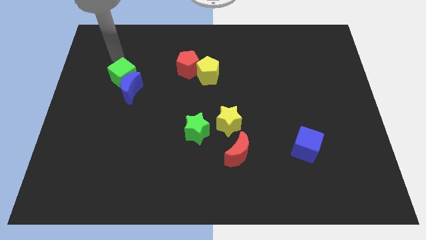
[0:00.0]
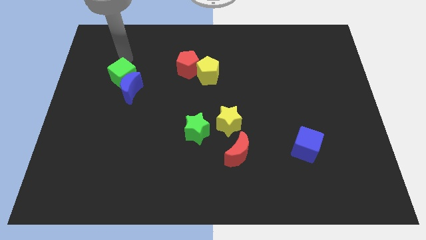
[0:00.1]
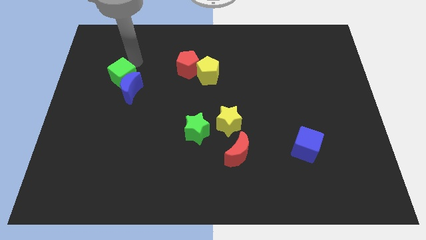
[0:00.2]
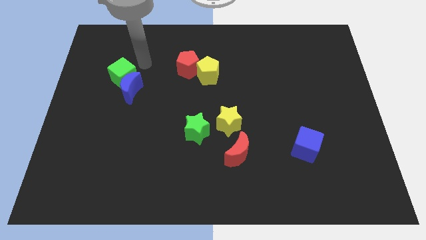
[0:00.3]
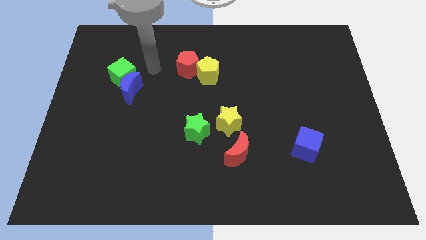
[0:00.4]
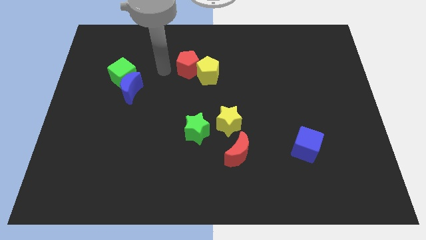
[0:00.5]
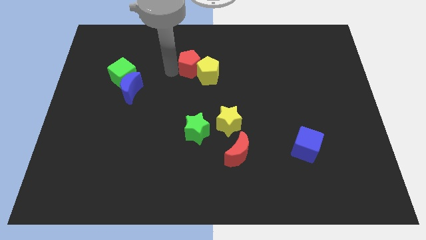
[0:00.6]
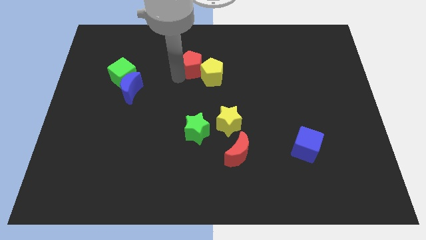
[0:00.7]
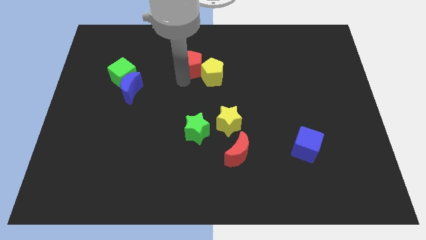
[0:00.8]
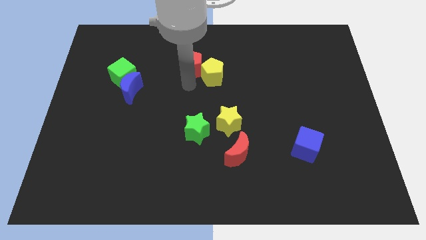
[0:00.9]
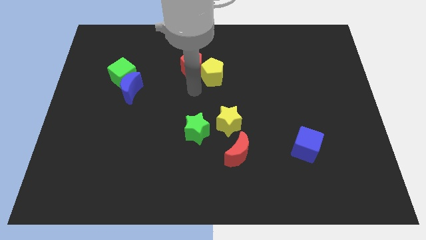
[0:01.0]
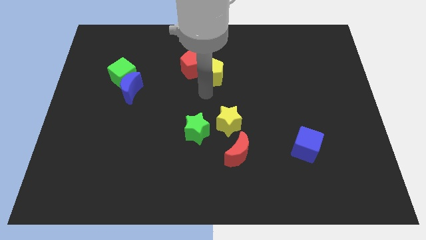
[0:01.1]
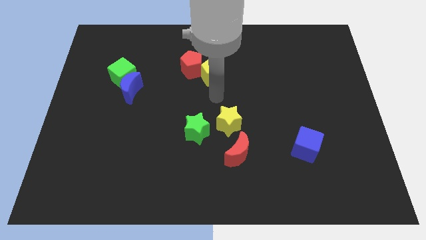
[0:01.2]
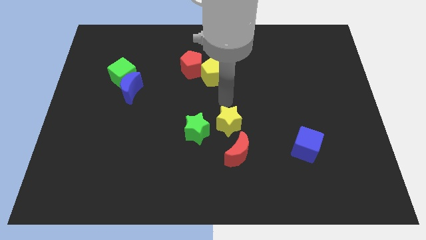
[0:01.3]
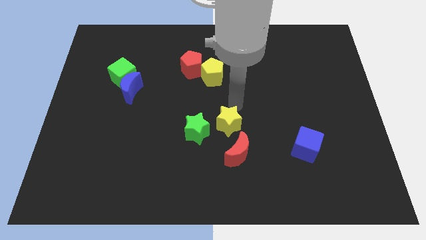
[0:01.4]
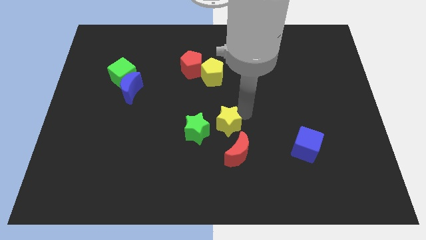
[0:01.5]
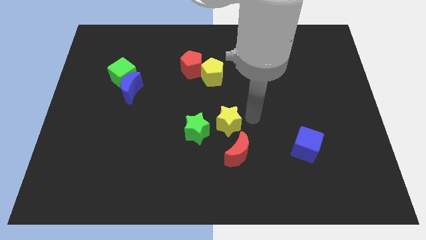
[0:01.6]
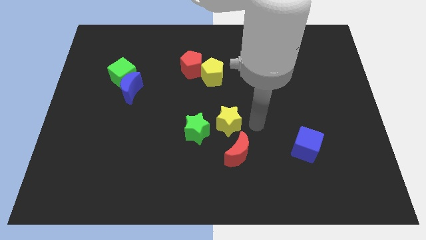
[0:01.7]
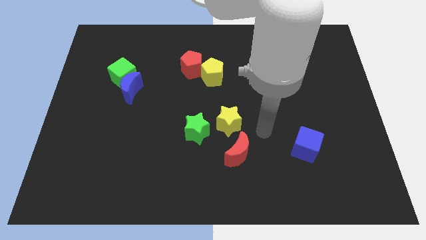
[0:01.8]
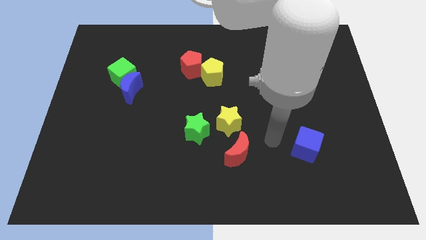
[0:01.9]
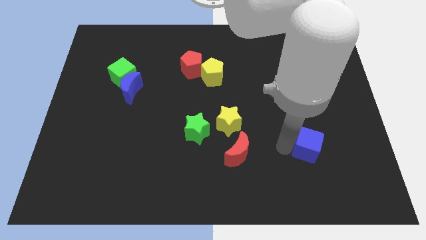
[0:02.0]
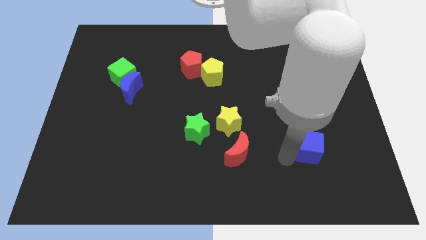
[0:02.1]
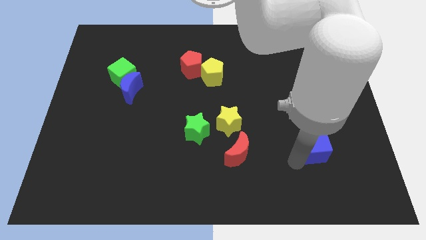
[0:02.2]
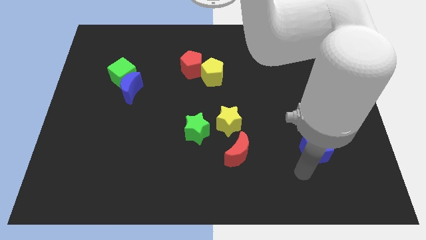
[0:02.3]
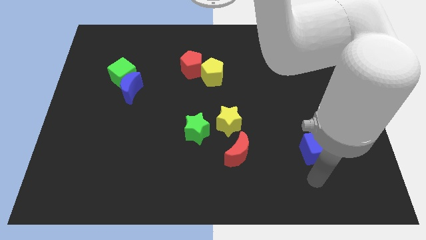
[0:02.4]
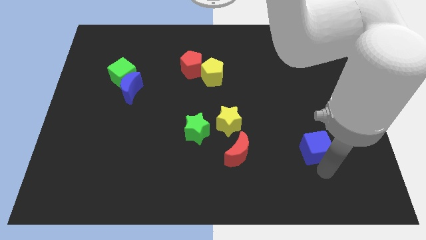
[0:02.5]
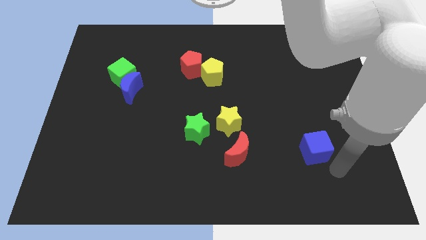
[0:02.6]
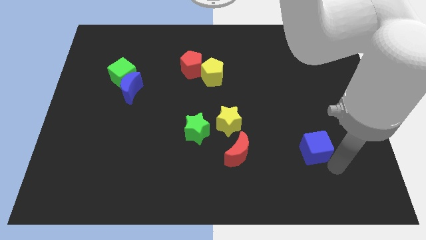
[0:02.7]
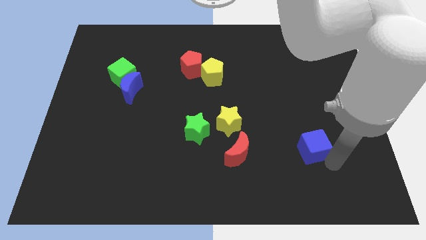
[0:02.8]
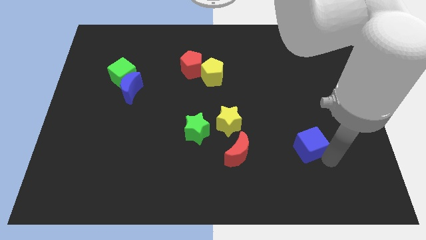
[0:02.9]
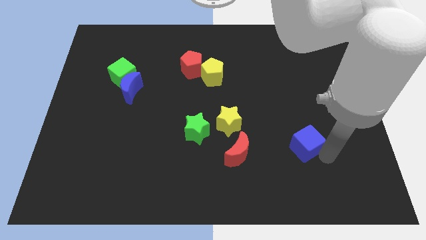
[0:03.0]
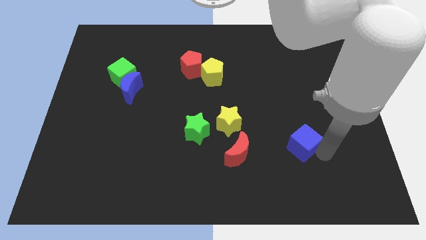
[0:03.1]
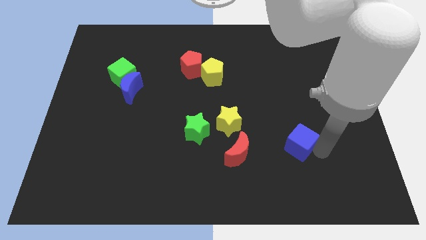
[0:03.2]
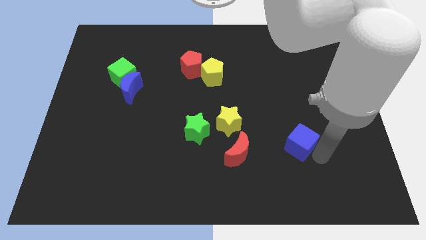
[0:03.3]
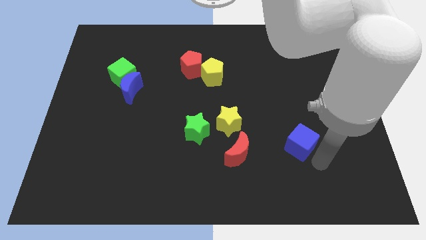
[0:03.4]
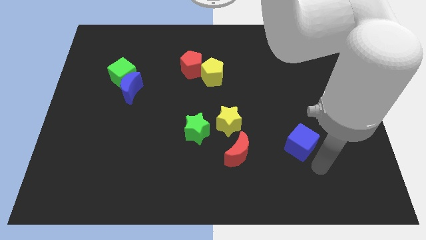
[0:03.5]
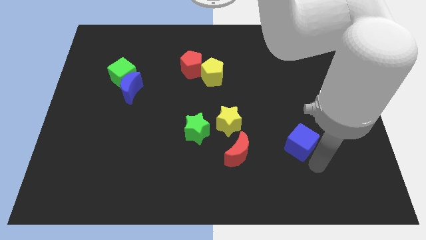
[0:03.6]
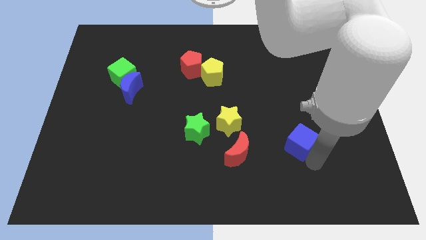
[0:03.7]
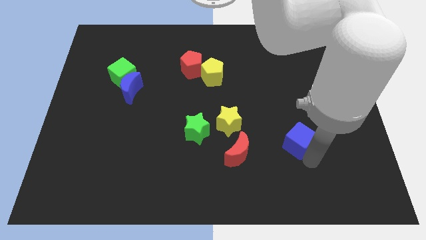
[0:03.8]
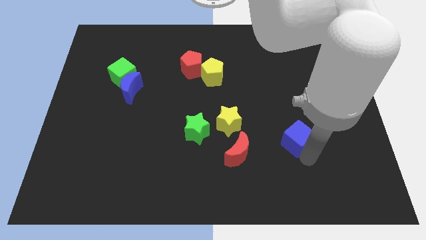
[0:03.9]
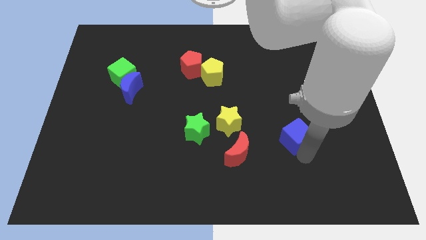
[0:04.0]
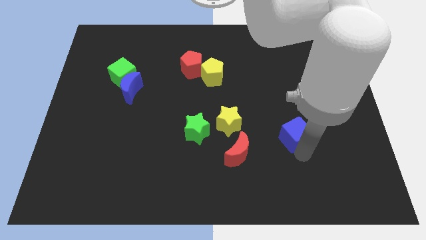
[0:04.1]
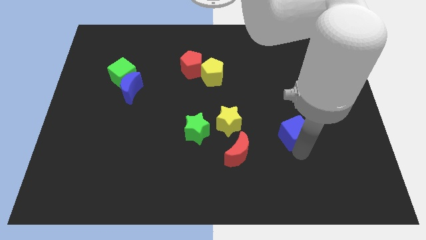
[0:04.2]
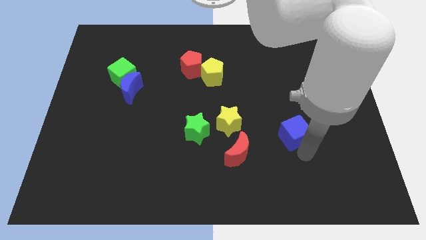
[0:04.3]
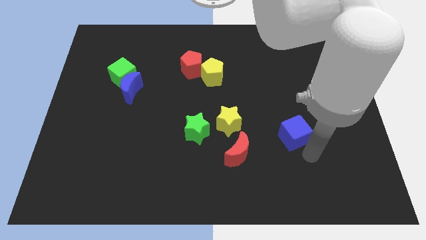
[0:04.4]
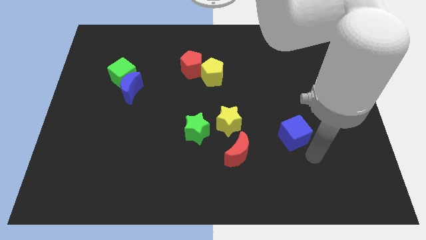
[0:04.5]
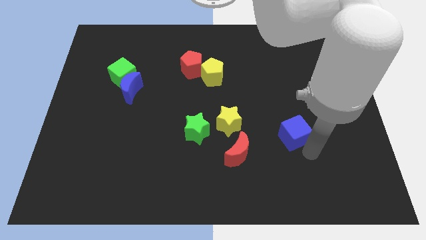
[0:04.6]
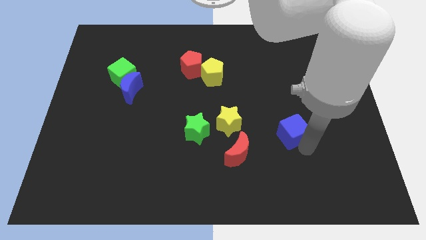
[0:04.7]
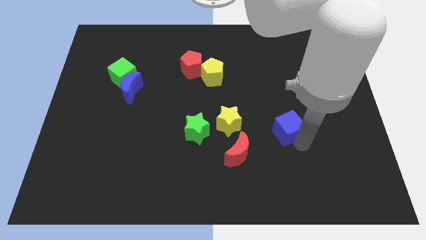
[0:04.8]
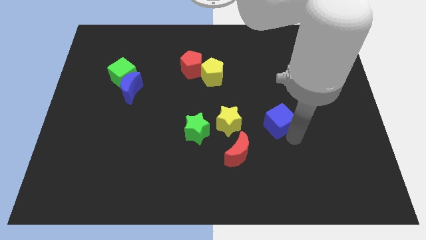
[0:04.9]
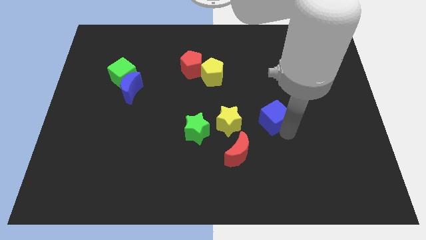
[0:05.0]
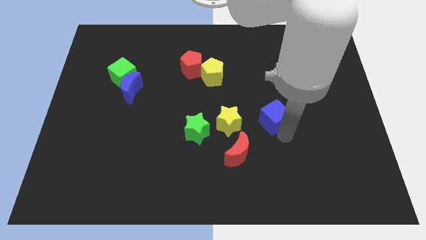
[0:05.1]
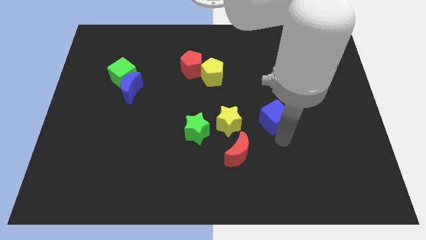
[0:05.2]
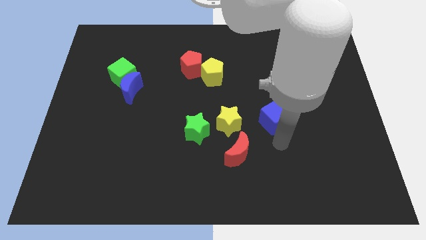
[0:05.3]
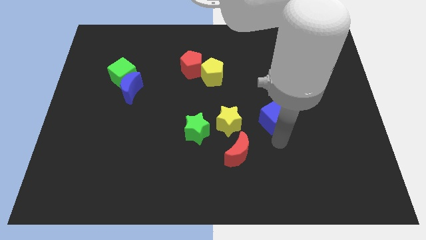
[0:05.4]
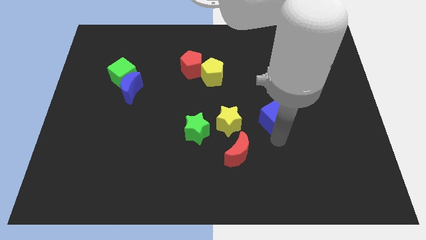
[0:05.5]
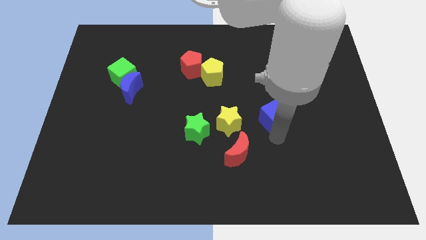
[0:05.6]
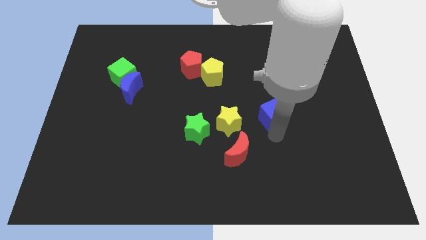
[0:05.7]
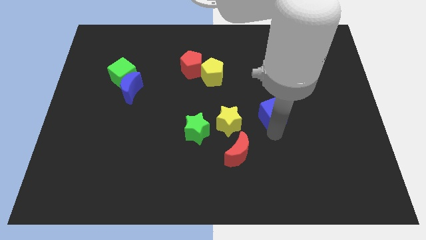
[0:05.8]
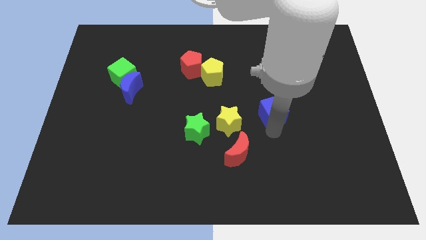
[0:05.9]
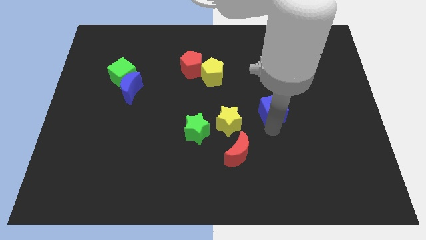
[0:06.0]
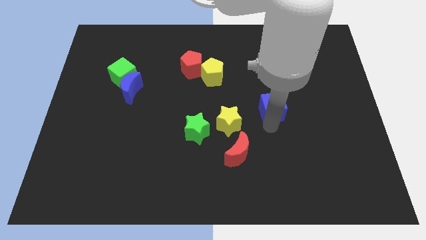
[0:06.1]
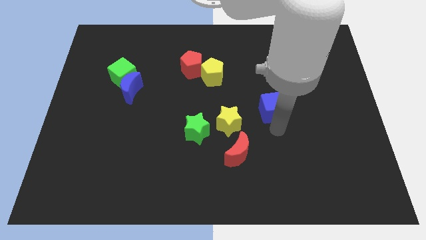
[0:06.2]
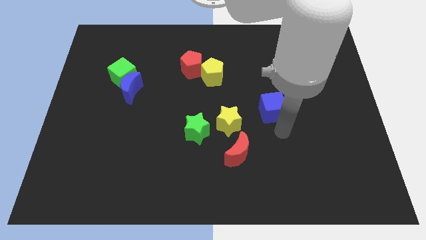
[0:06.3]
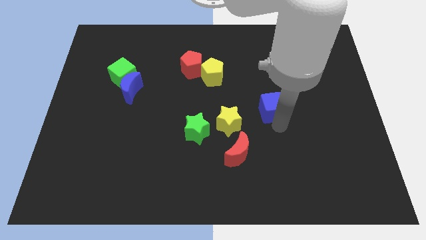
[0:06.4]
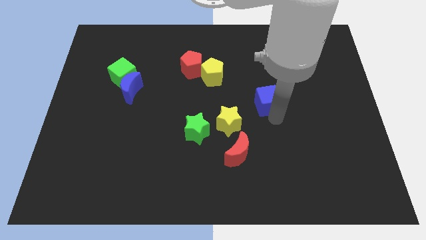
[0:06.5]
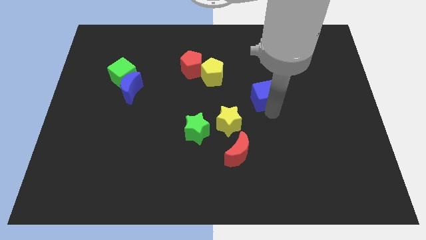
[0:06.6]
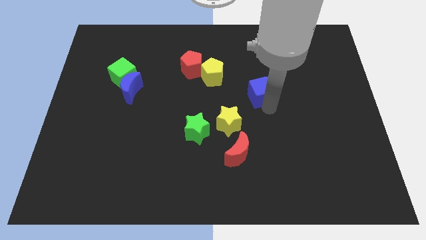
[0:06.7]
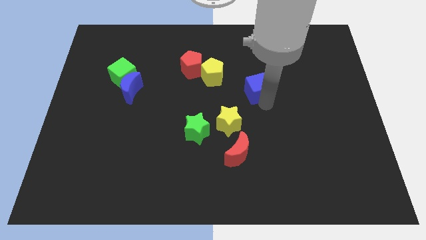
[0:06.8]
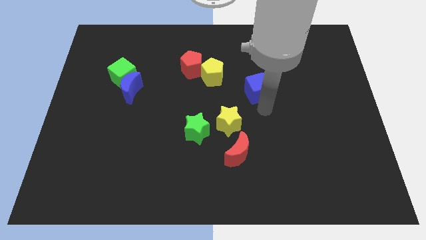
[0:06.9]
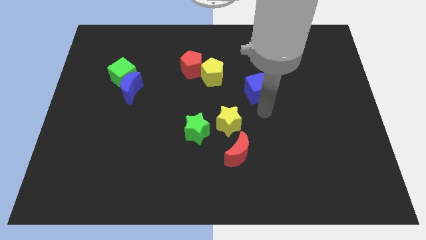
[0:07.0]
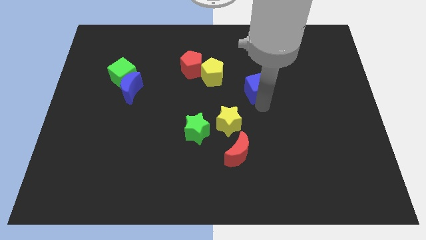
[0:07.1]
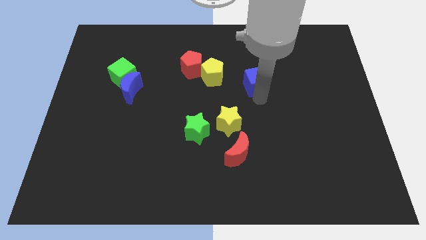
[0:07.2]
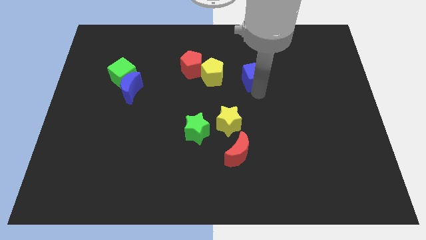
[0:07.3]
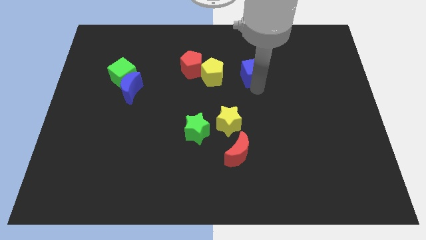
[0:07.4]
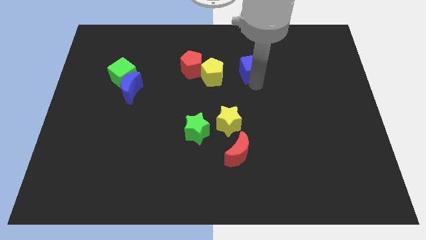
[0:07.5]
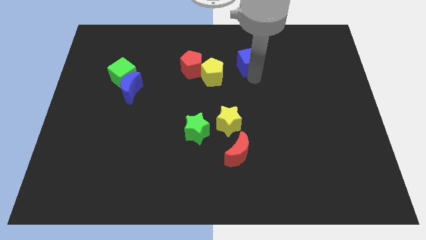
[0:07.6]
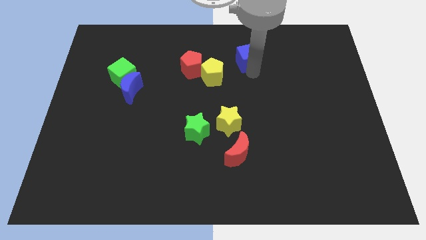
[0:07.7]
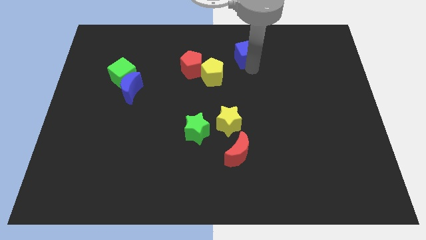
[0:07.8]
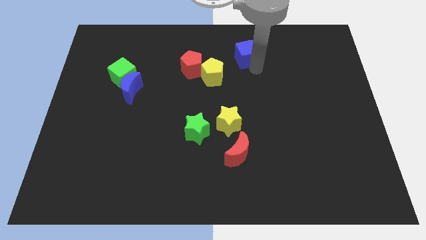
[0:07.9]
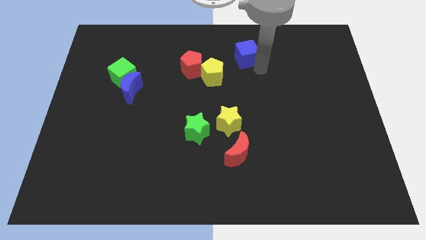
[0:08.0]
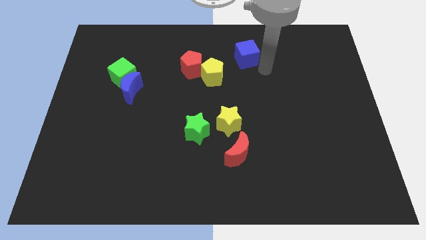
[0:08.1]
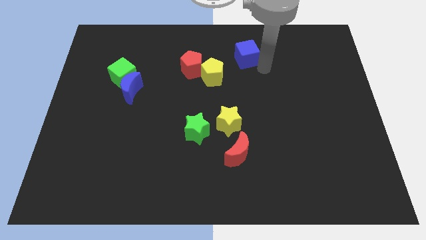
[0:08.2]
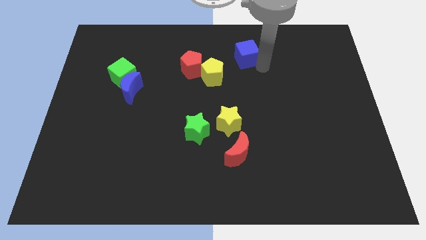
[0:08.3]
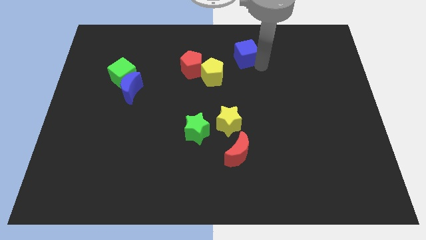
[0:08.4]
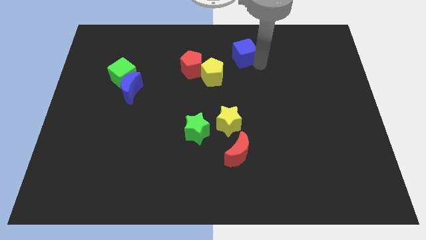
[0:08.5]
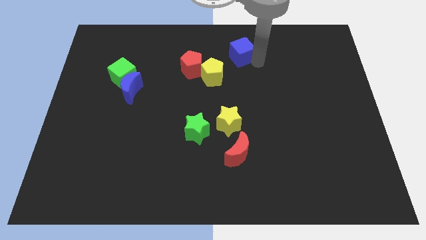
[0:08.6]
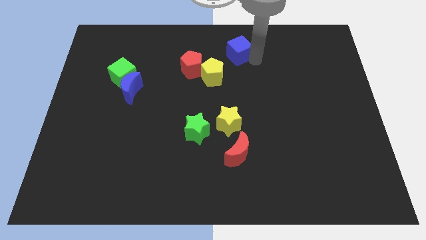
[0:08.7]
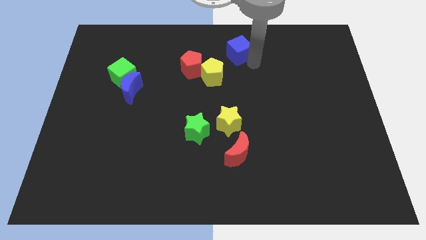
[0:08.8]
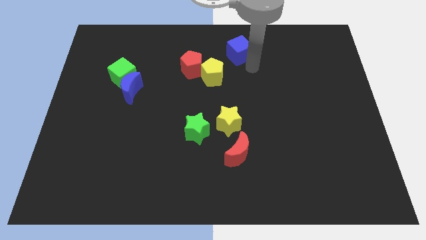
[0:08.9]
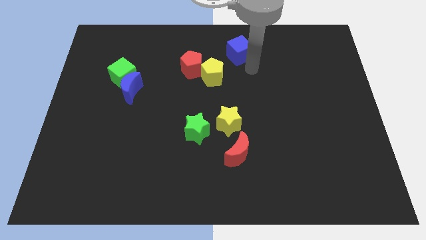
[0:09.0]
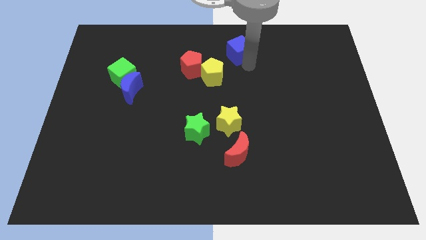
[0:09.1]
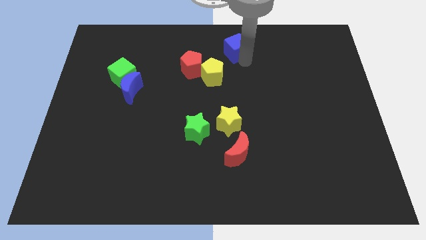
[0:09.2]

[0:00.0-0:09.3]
slide the blue cube to the towards your base
